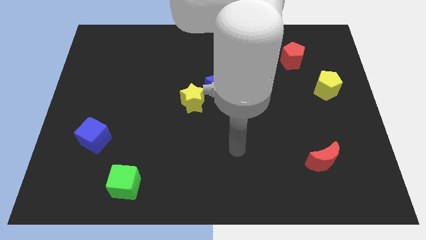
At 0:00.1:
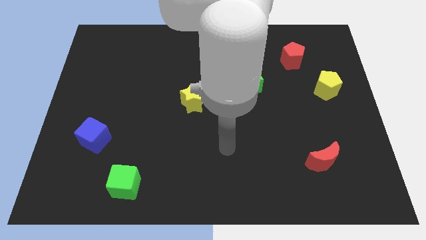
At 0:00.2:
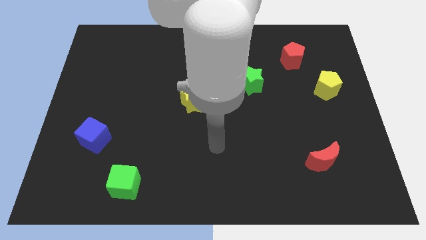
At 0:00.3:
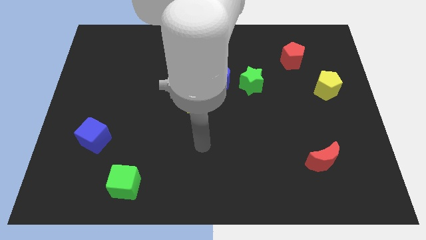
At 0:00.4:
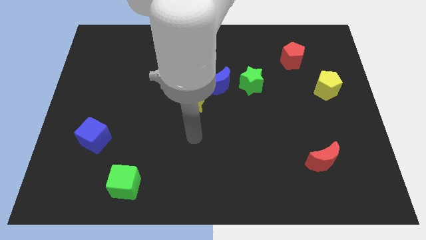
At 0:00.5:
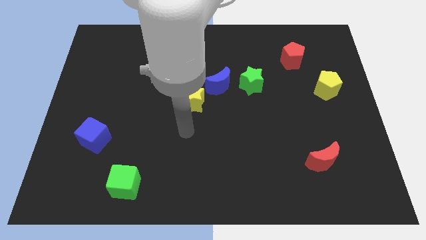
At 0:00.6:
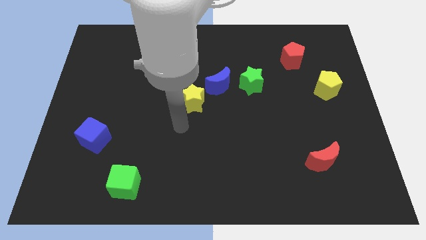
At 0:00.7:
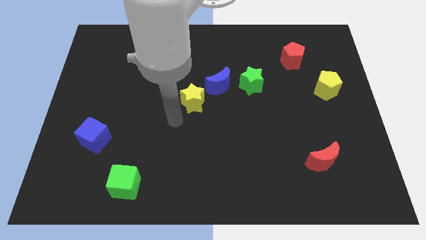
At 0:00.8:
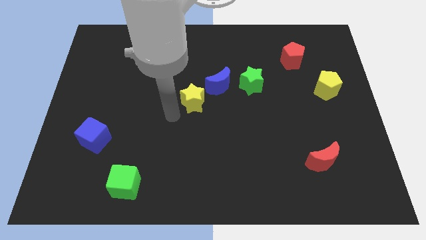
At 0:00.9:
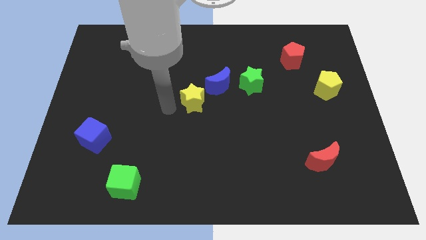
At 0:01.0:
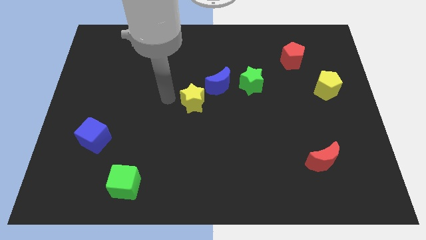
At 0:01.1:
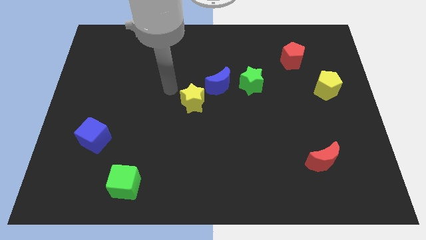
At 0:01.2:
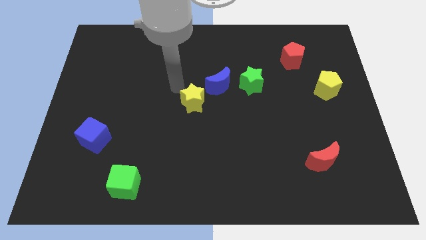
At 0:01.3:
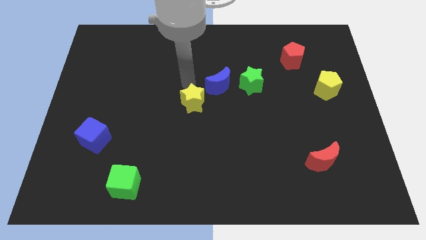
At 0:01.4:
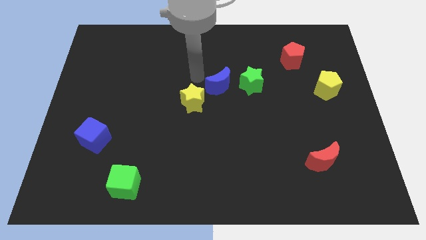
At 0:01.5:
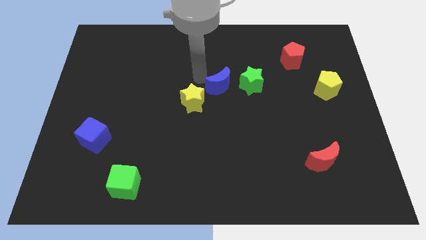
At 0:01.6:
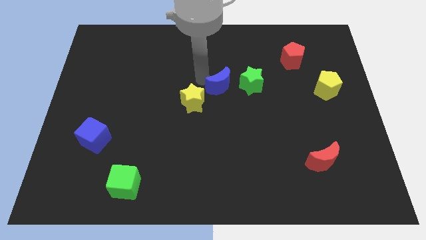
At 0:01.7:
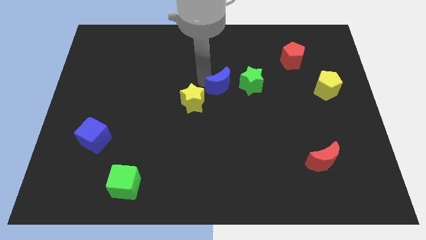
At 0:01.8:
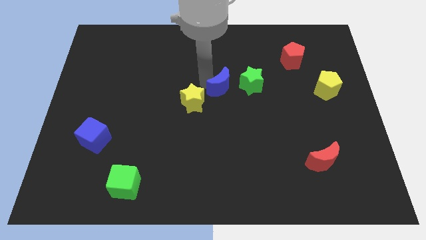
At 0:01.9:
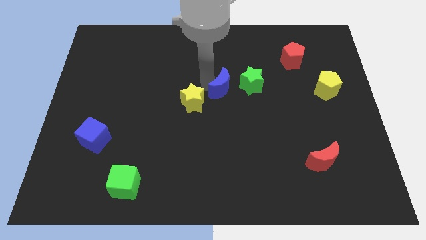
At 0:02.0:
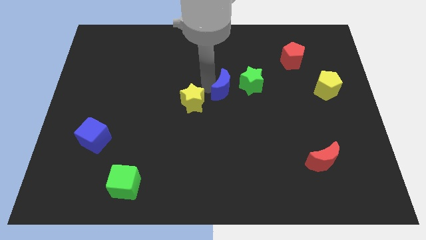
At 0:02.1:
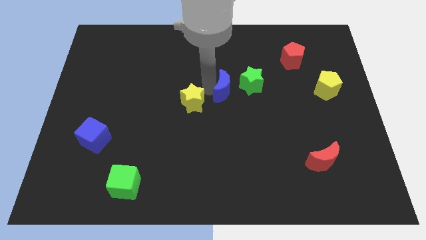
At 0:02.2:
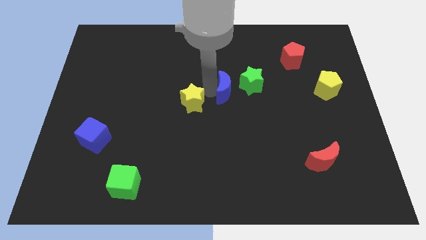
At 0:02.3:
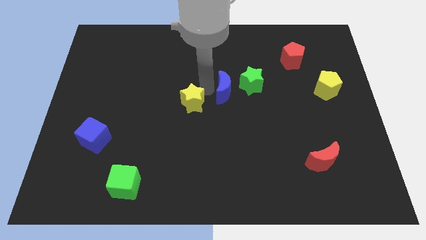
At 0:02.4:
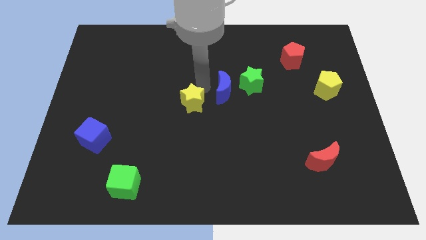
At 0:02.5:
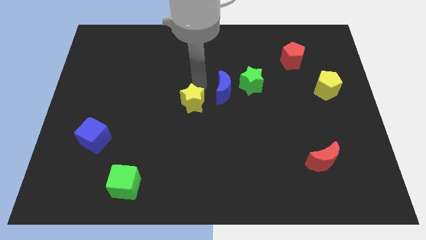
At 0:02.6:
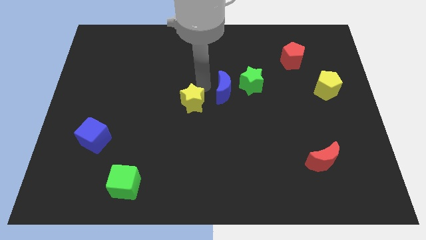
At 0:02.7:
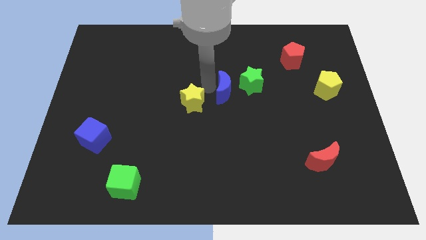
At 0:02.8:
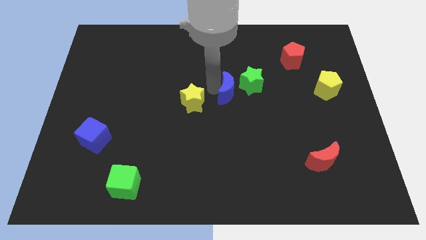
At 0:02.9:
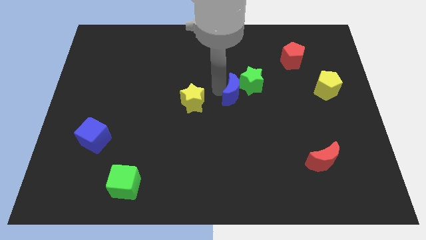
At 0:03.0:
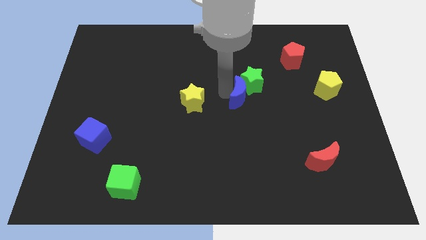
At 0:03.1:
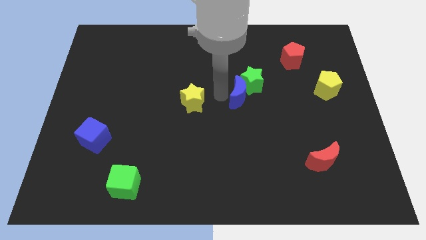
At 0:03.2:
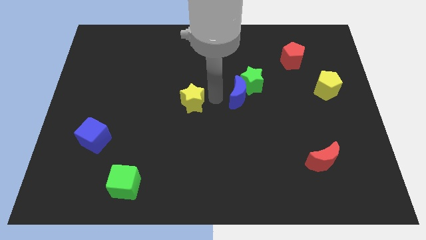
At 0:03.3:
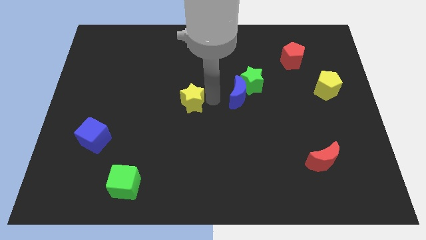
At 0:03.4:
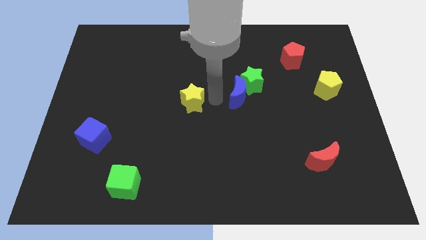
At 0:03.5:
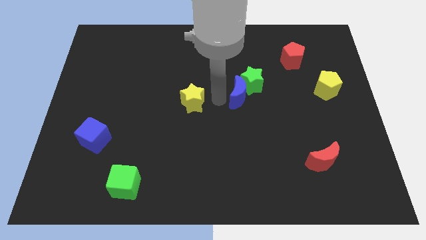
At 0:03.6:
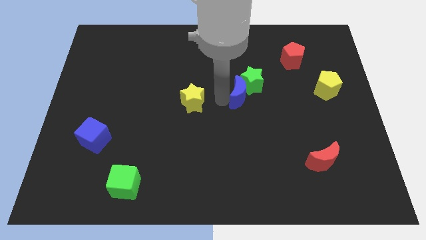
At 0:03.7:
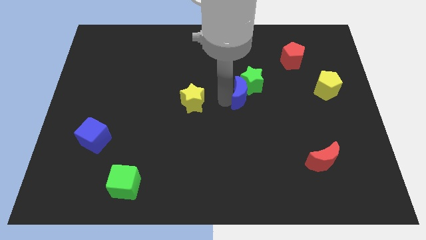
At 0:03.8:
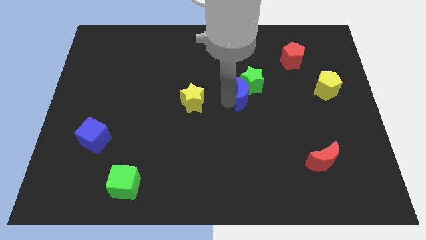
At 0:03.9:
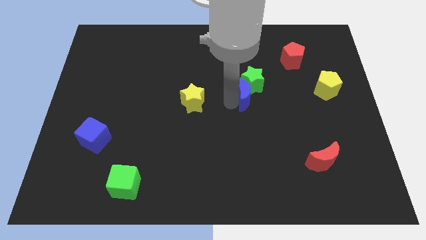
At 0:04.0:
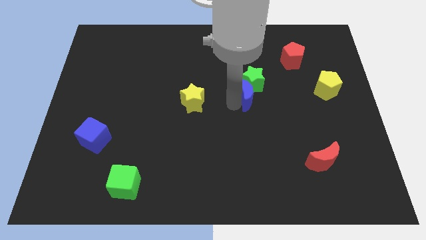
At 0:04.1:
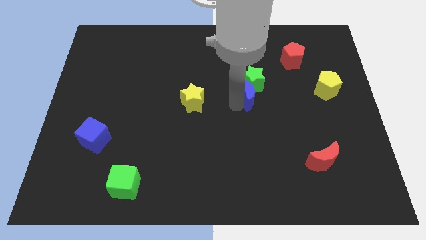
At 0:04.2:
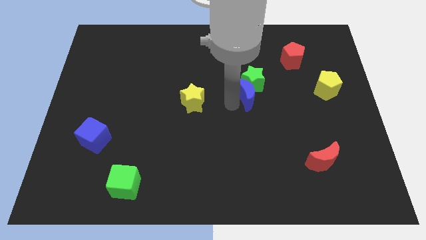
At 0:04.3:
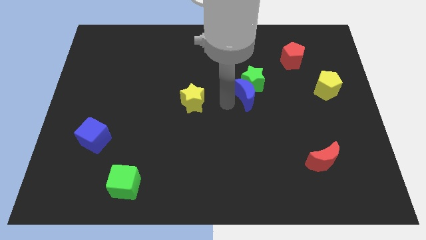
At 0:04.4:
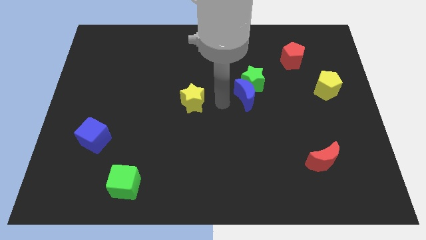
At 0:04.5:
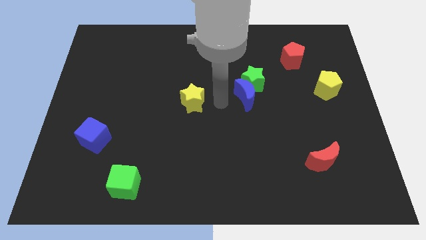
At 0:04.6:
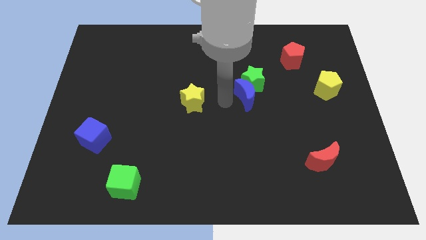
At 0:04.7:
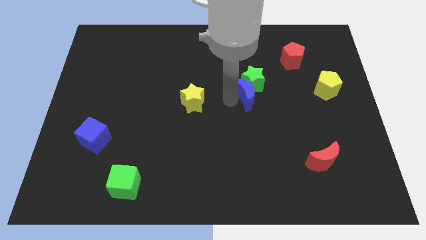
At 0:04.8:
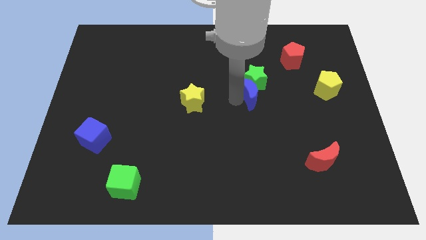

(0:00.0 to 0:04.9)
slide the blue moon slightly to the right

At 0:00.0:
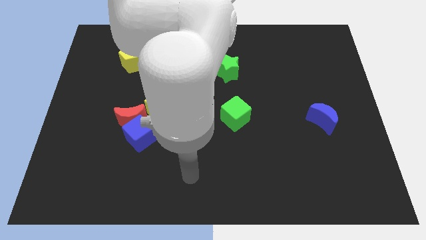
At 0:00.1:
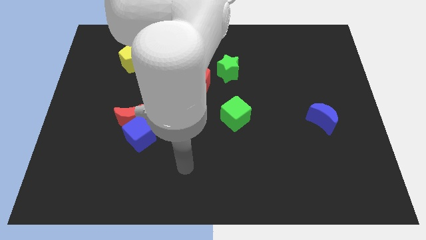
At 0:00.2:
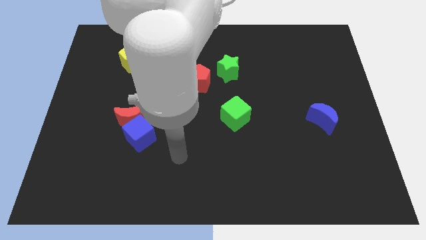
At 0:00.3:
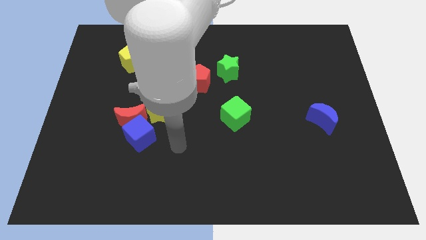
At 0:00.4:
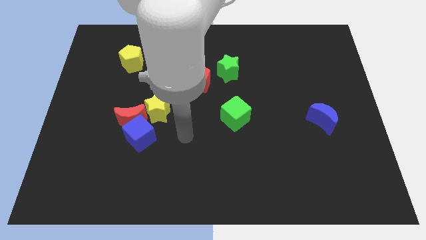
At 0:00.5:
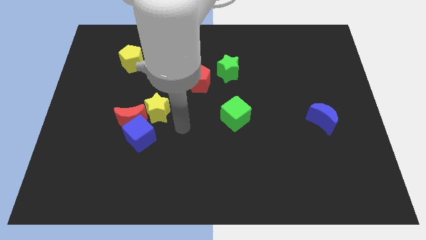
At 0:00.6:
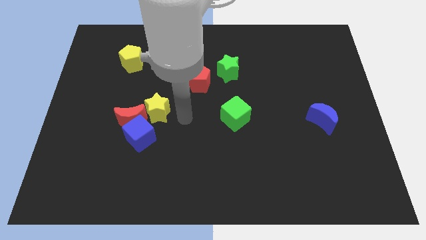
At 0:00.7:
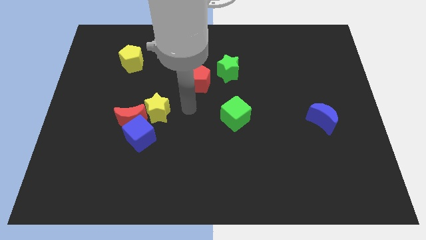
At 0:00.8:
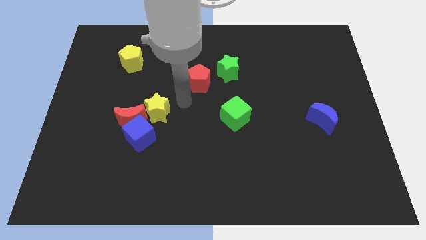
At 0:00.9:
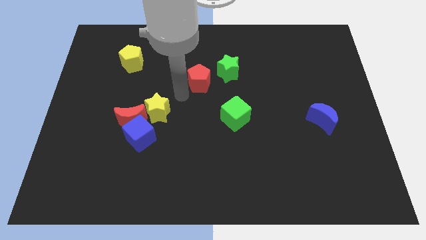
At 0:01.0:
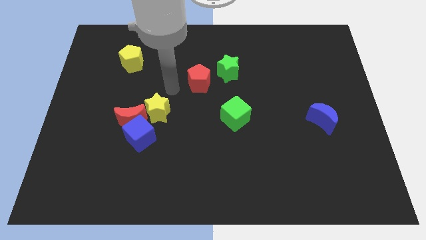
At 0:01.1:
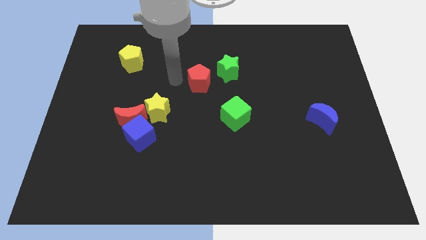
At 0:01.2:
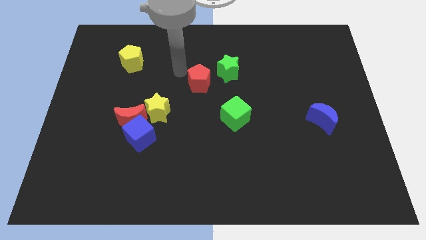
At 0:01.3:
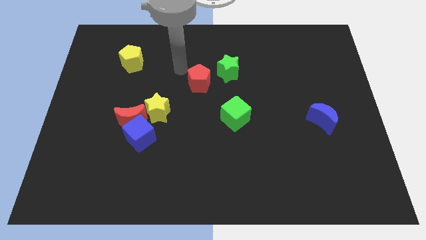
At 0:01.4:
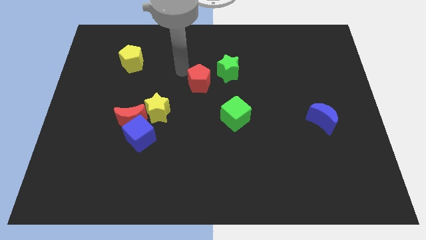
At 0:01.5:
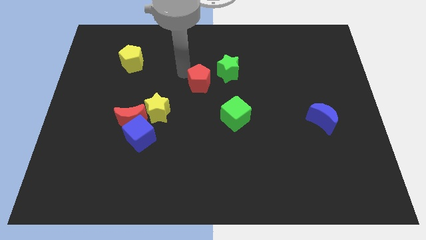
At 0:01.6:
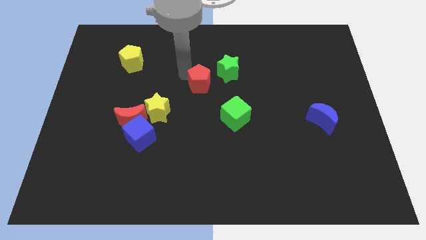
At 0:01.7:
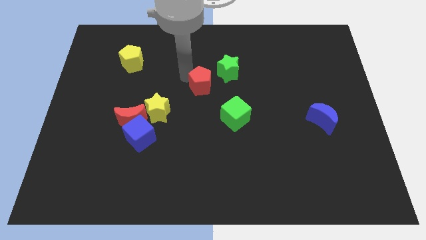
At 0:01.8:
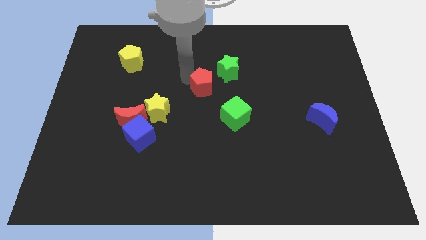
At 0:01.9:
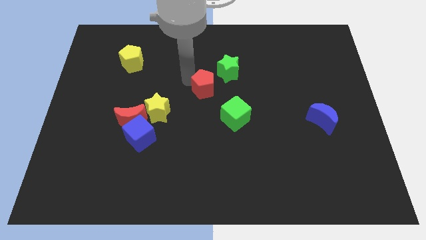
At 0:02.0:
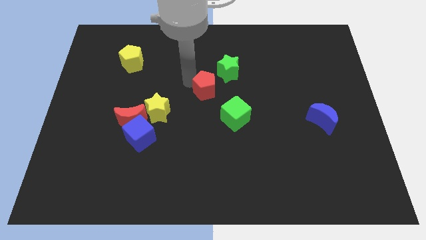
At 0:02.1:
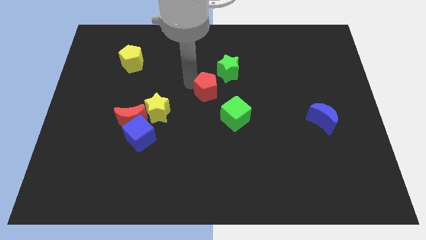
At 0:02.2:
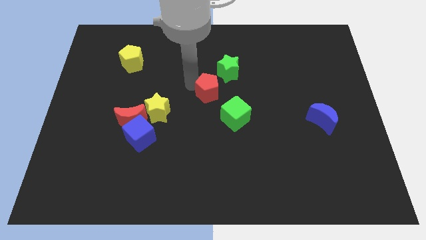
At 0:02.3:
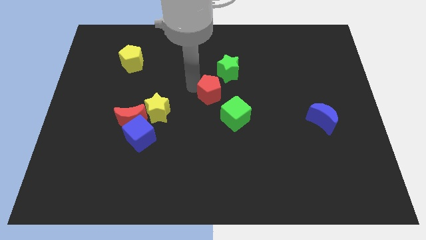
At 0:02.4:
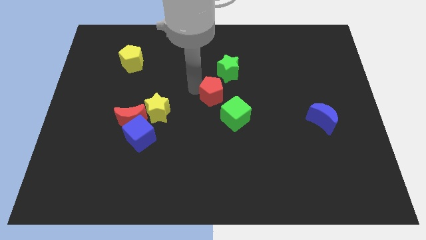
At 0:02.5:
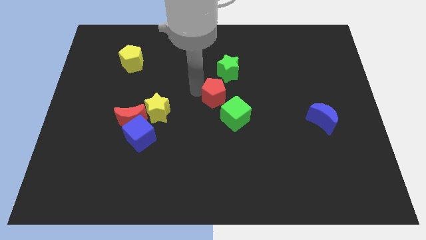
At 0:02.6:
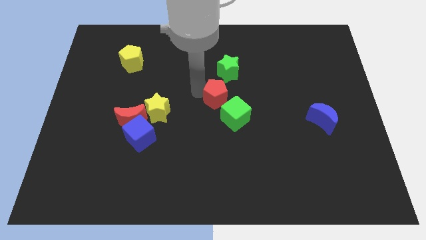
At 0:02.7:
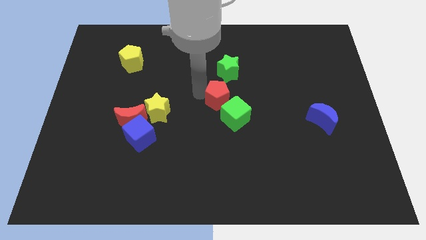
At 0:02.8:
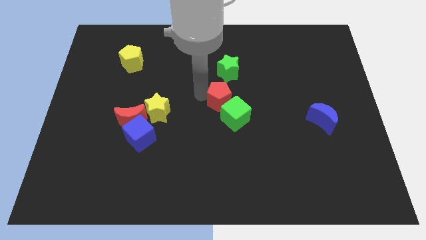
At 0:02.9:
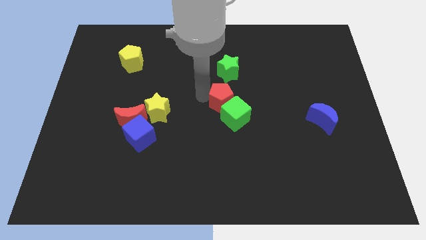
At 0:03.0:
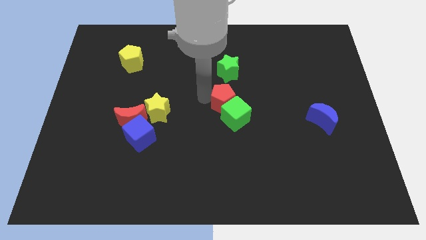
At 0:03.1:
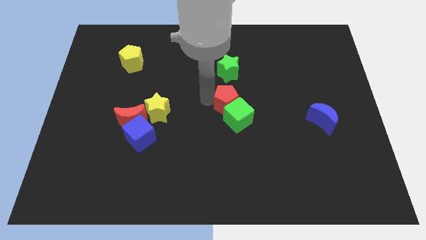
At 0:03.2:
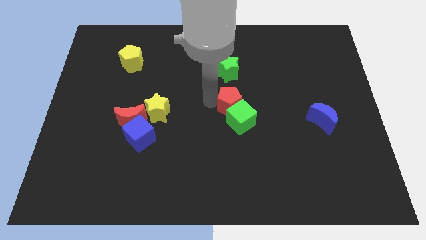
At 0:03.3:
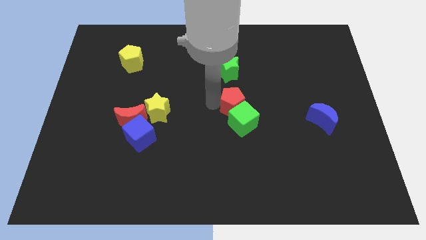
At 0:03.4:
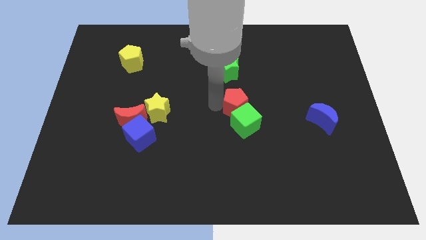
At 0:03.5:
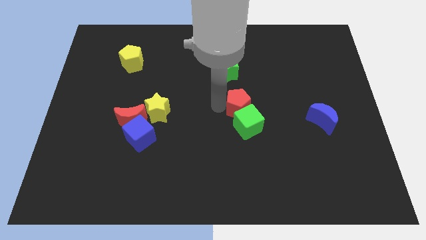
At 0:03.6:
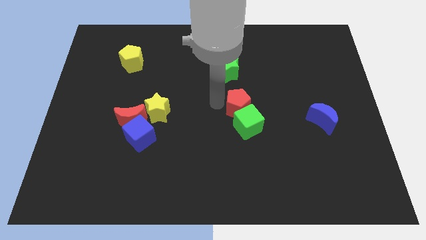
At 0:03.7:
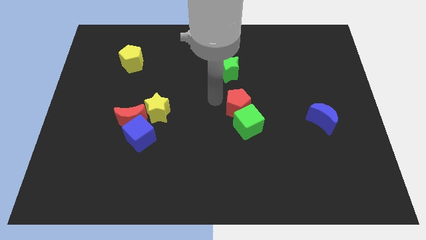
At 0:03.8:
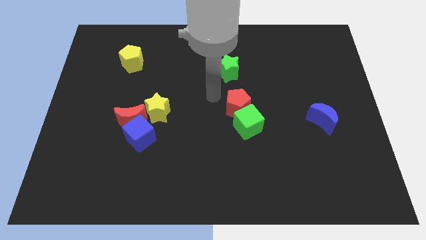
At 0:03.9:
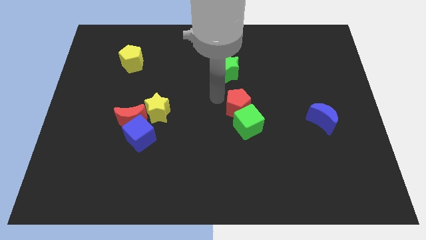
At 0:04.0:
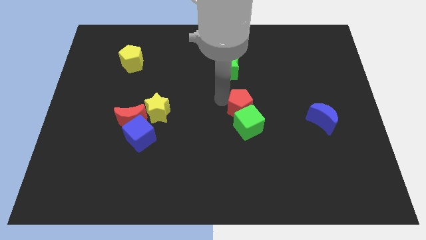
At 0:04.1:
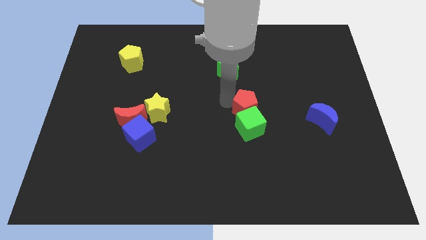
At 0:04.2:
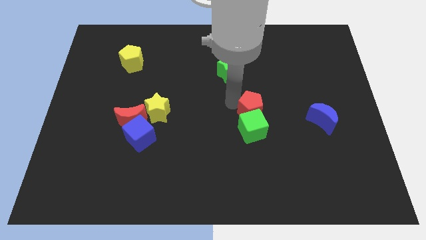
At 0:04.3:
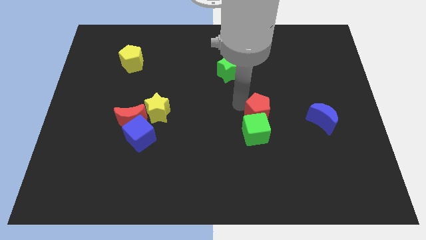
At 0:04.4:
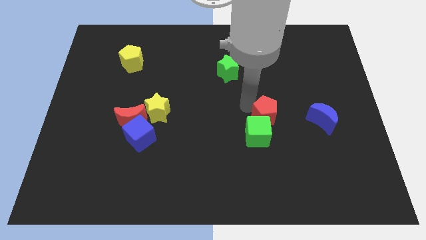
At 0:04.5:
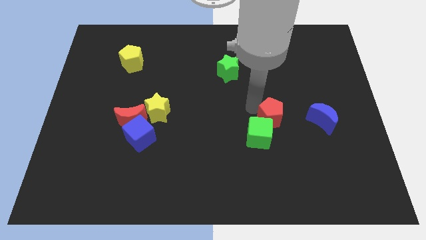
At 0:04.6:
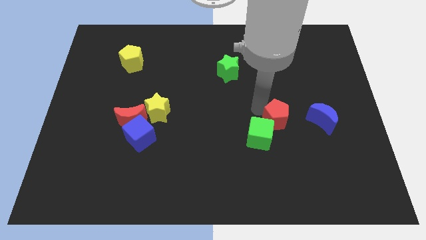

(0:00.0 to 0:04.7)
move the red pentagon downwards and then right
